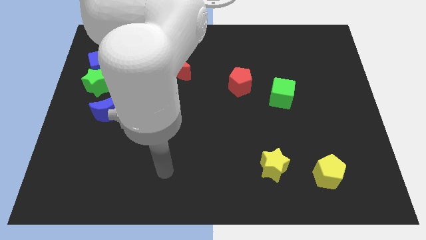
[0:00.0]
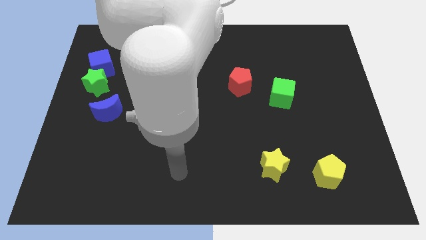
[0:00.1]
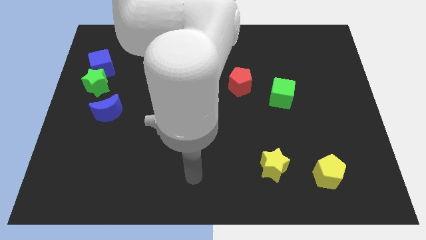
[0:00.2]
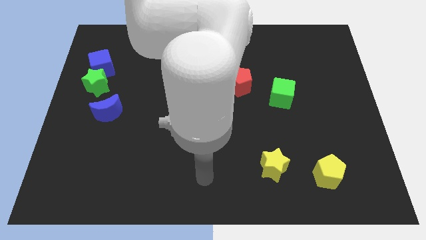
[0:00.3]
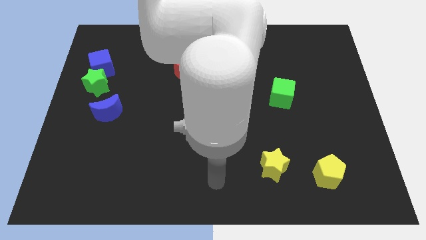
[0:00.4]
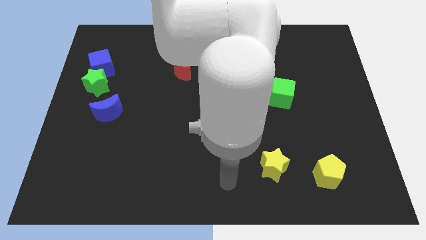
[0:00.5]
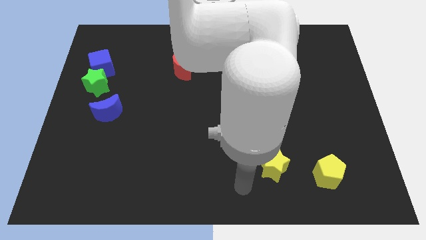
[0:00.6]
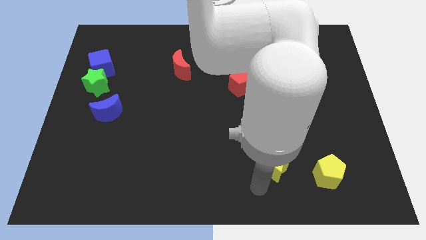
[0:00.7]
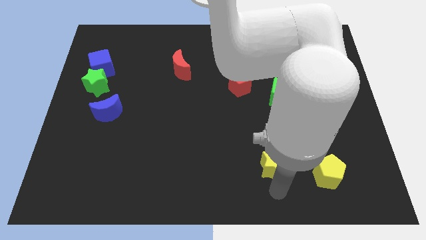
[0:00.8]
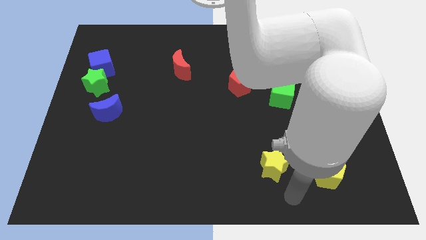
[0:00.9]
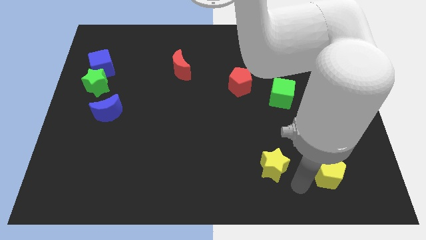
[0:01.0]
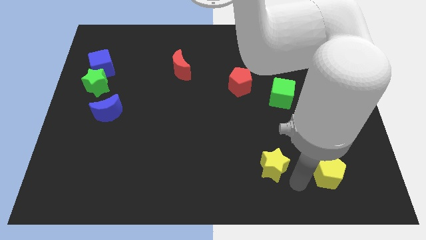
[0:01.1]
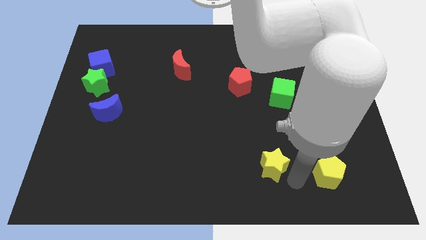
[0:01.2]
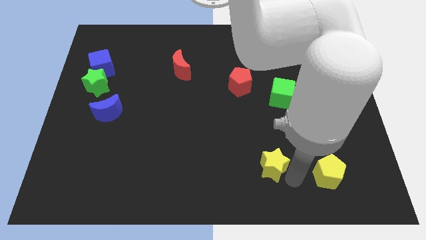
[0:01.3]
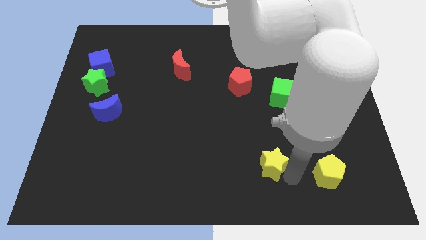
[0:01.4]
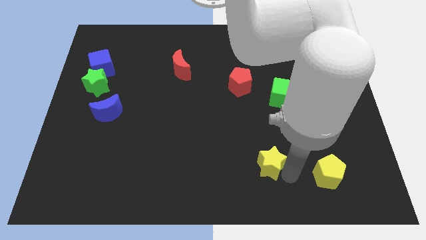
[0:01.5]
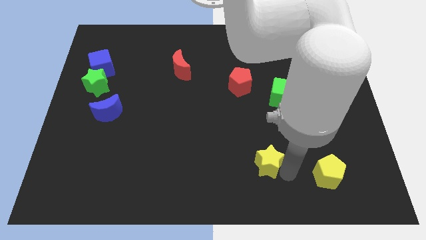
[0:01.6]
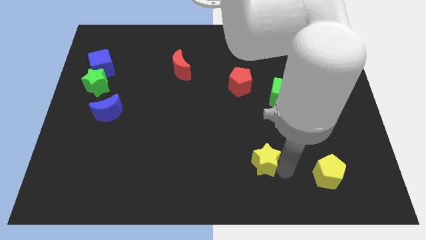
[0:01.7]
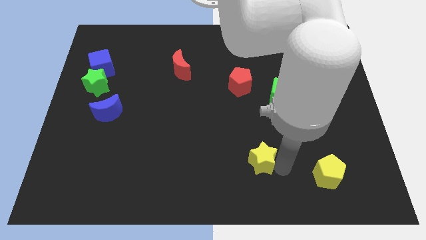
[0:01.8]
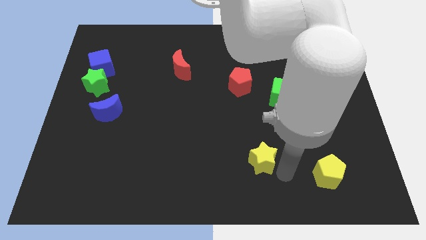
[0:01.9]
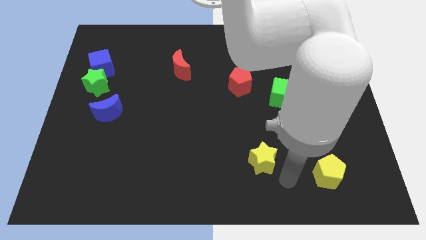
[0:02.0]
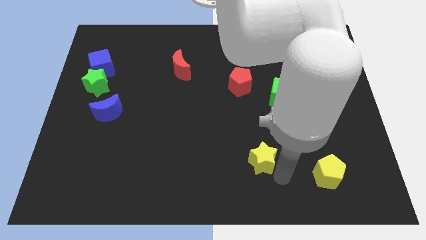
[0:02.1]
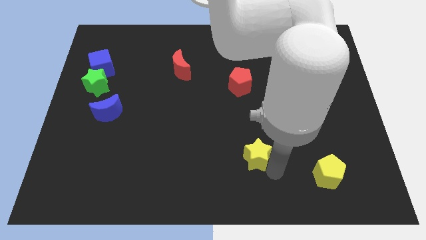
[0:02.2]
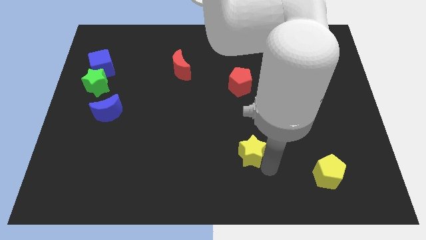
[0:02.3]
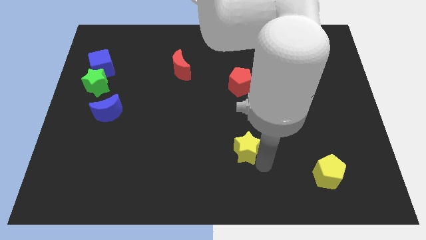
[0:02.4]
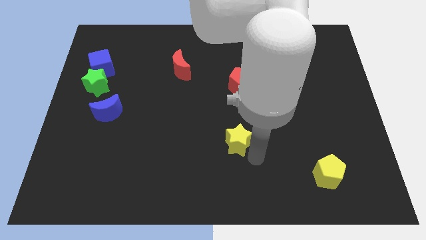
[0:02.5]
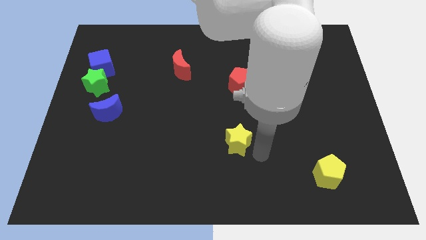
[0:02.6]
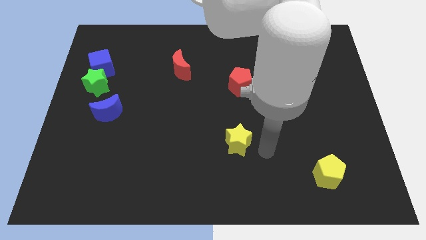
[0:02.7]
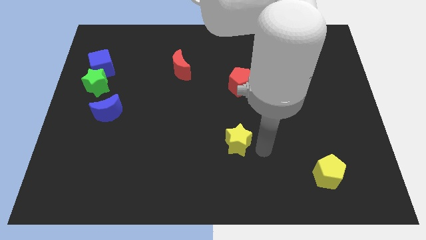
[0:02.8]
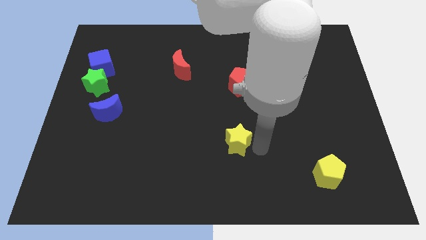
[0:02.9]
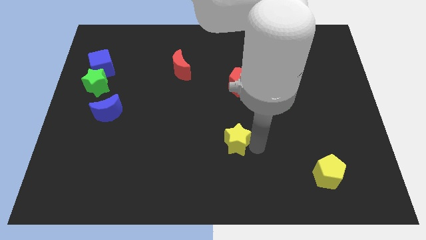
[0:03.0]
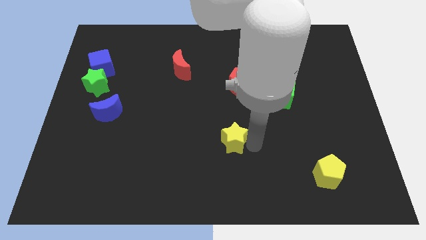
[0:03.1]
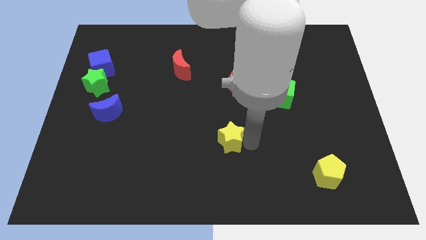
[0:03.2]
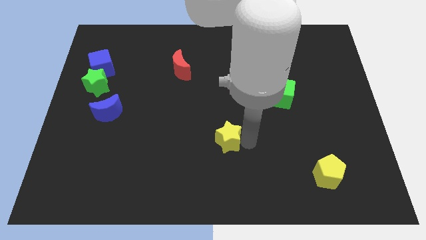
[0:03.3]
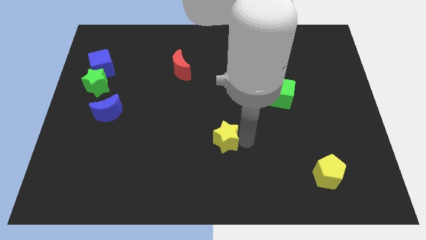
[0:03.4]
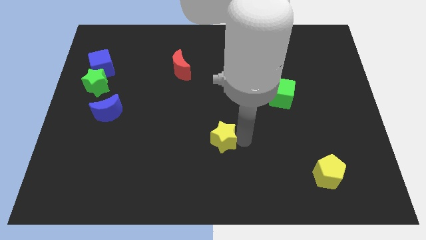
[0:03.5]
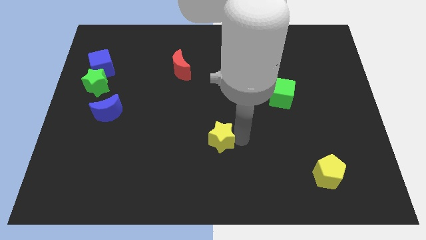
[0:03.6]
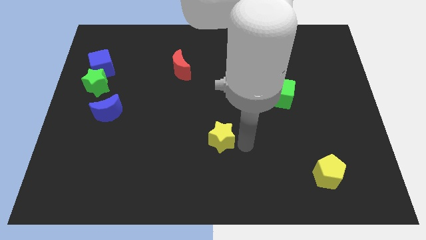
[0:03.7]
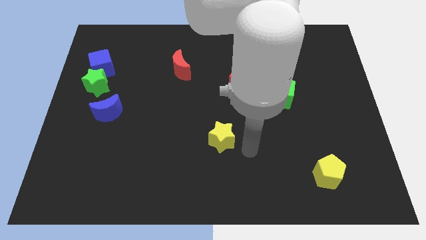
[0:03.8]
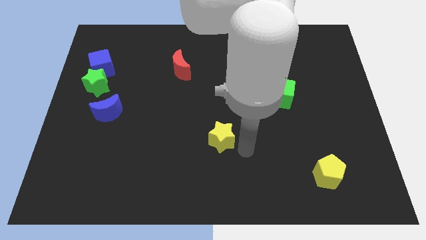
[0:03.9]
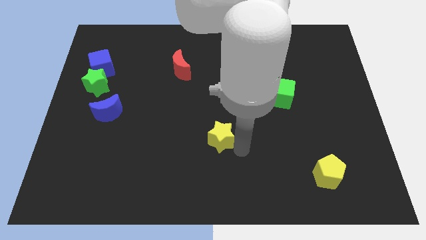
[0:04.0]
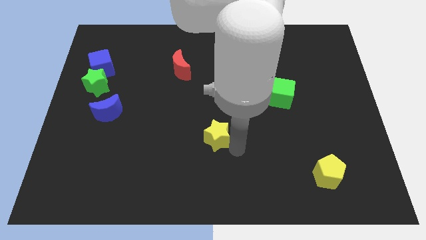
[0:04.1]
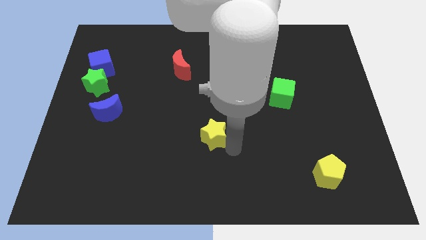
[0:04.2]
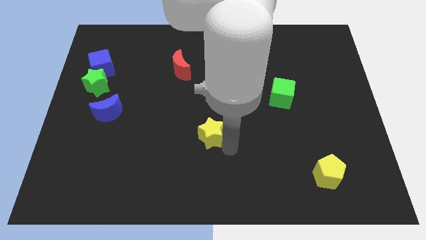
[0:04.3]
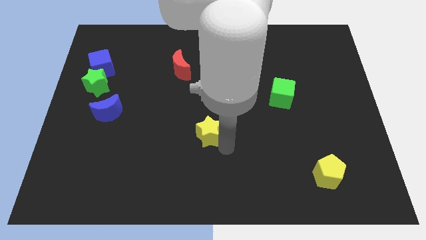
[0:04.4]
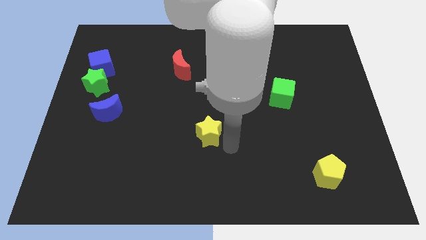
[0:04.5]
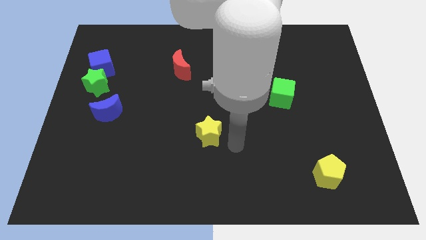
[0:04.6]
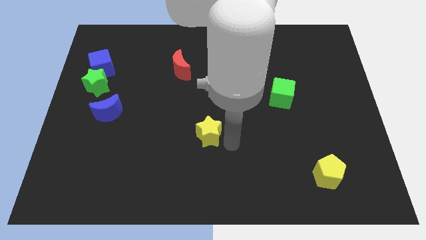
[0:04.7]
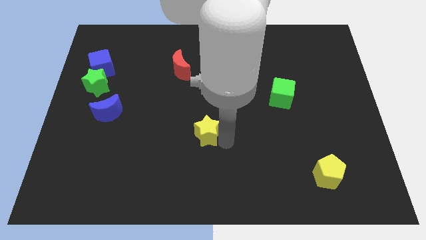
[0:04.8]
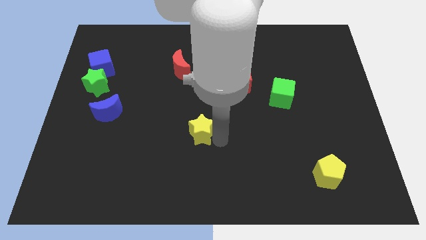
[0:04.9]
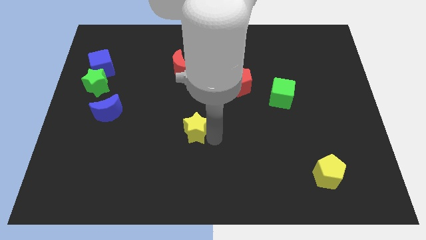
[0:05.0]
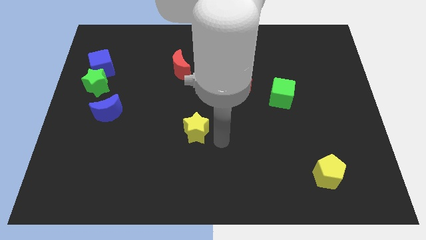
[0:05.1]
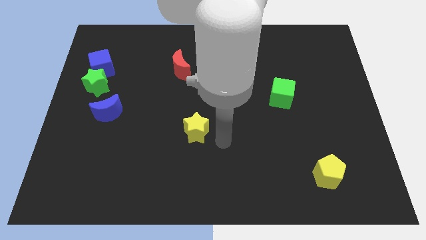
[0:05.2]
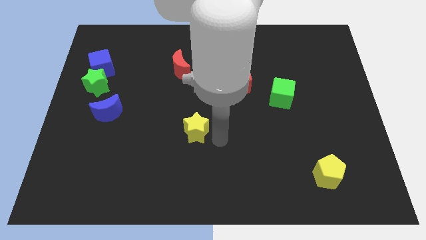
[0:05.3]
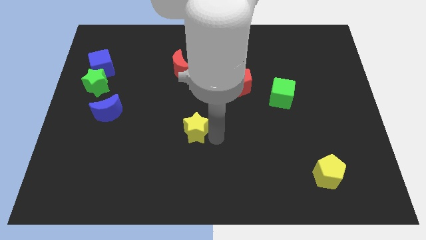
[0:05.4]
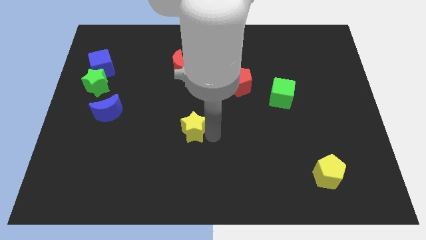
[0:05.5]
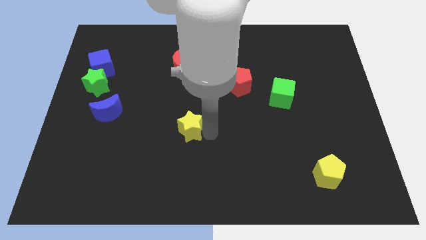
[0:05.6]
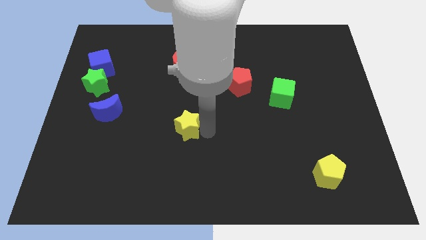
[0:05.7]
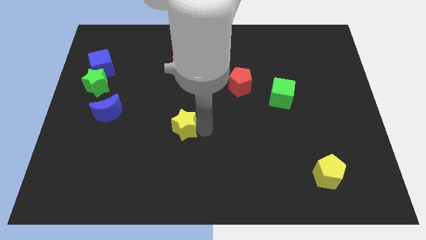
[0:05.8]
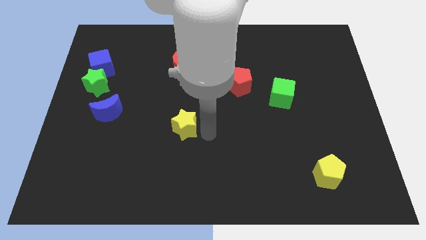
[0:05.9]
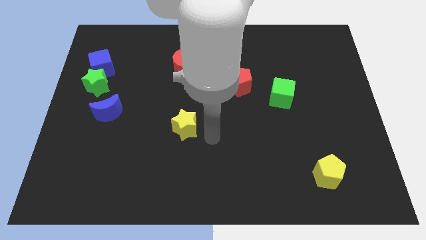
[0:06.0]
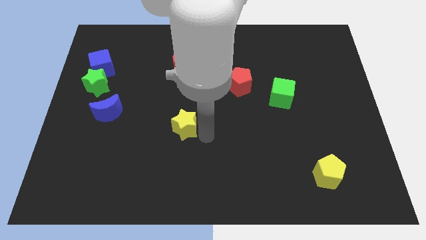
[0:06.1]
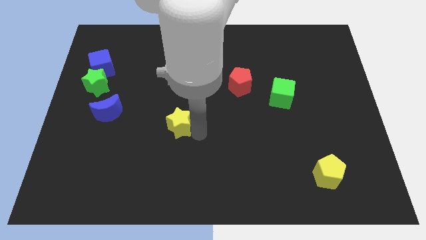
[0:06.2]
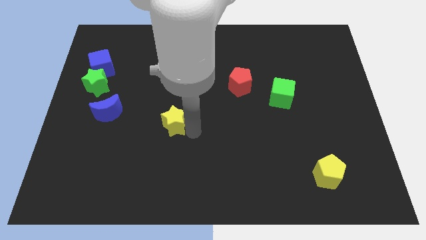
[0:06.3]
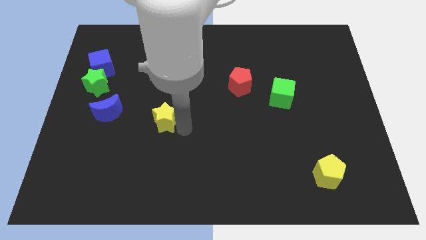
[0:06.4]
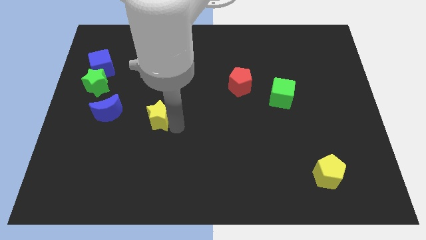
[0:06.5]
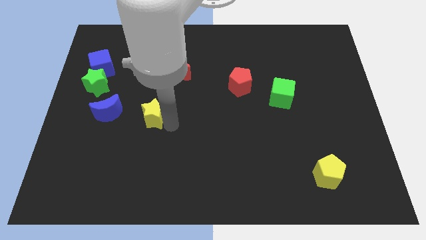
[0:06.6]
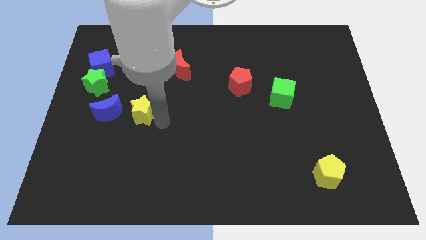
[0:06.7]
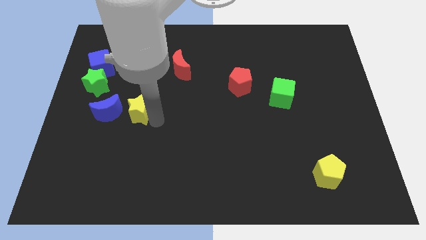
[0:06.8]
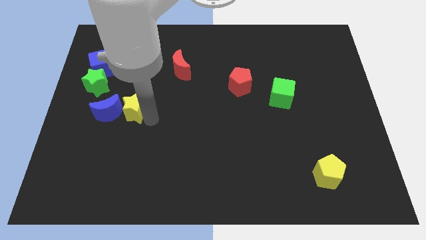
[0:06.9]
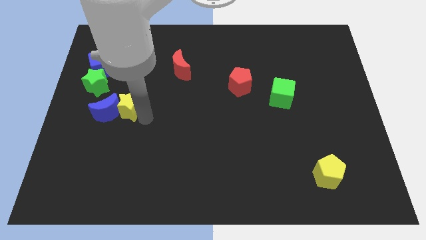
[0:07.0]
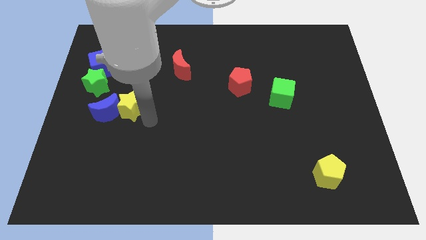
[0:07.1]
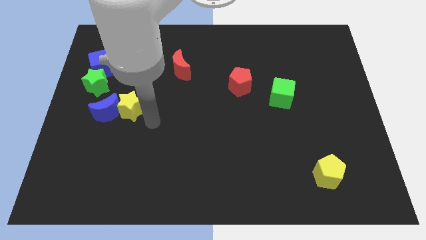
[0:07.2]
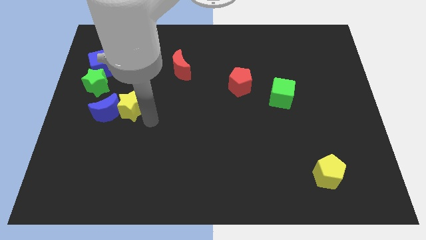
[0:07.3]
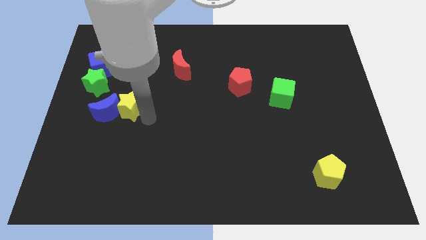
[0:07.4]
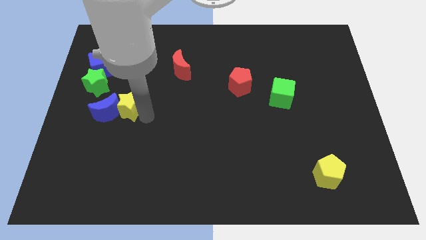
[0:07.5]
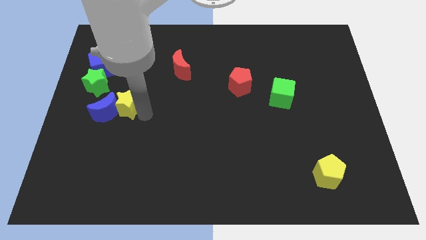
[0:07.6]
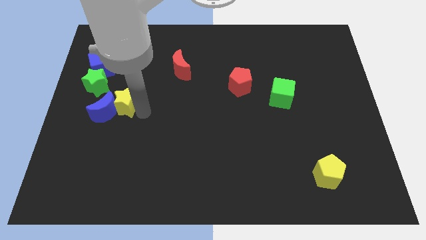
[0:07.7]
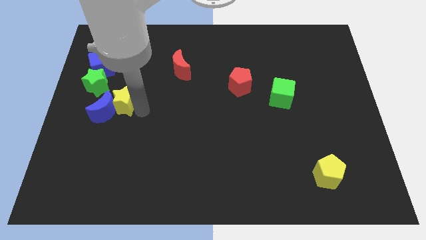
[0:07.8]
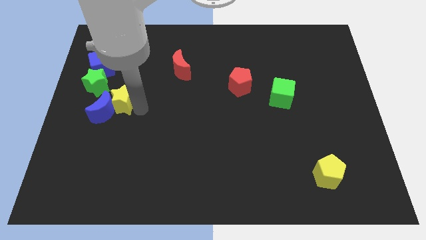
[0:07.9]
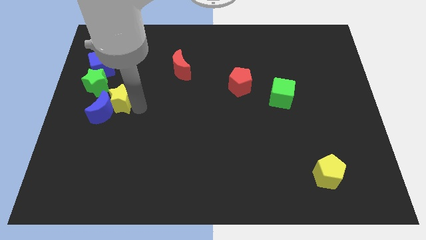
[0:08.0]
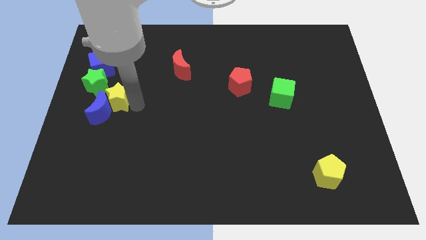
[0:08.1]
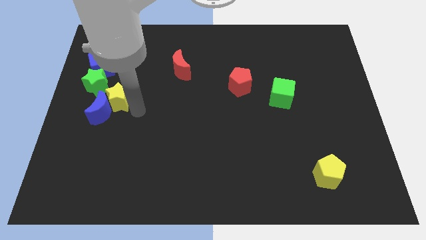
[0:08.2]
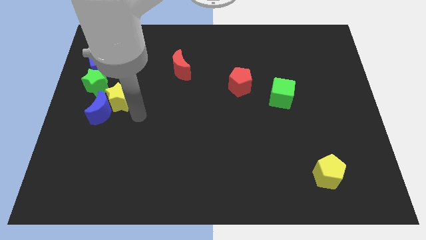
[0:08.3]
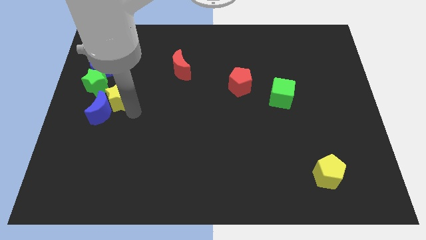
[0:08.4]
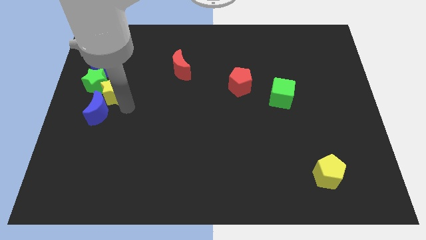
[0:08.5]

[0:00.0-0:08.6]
slide the yellow star next to the green star
